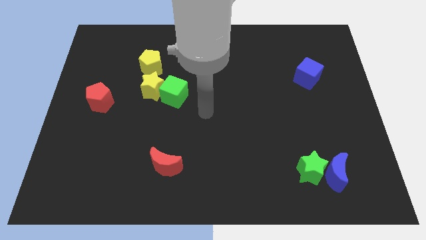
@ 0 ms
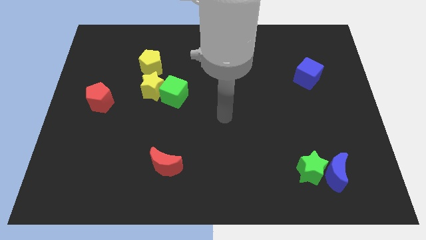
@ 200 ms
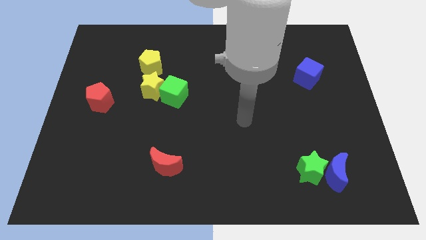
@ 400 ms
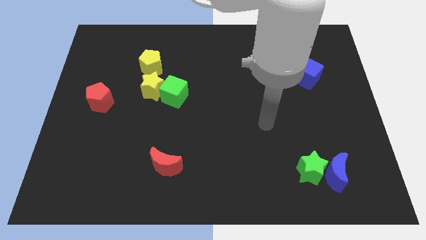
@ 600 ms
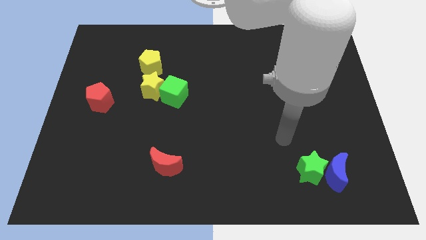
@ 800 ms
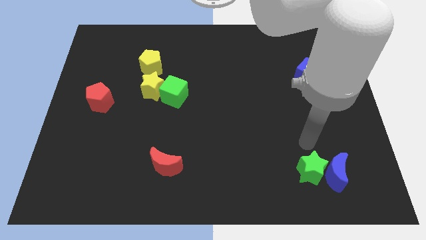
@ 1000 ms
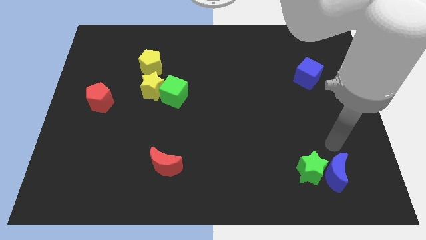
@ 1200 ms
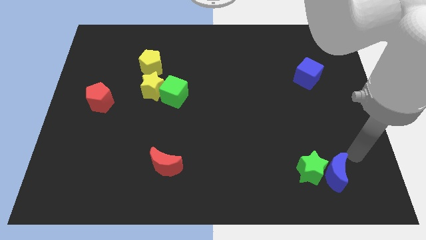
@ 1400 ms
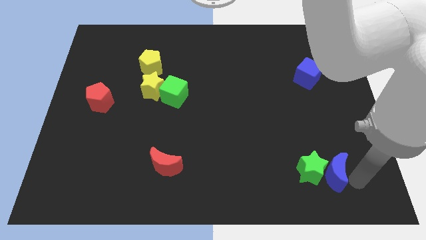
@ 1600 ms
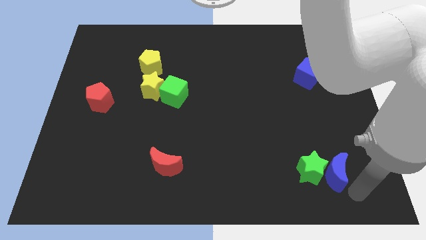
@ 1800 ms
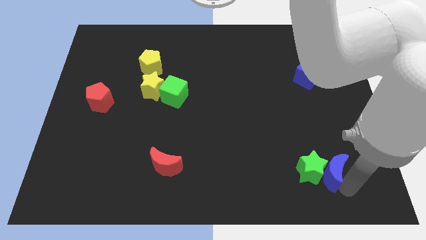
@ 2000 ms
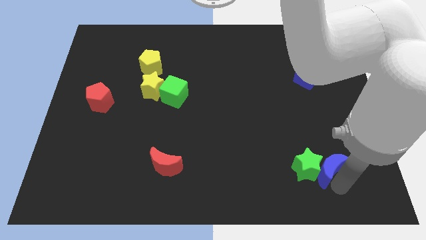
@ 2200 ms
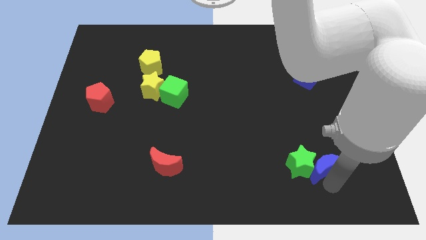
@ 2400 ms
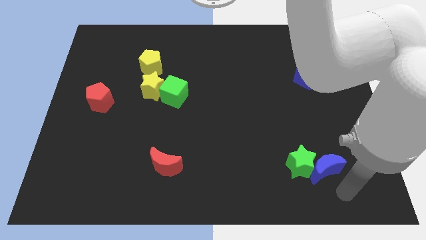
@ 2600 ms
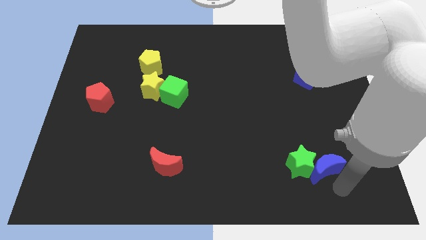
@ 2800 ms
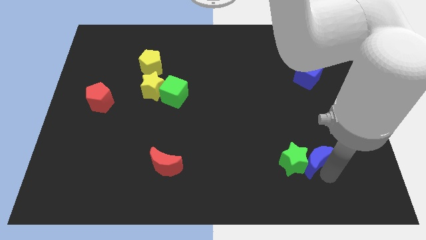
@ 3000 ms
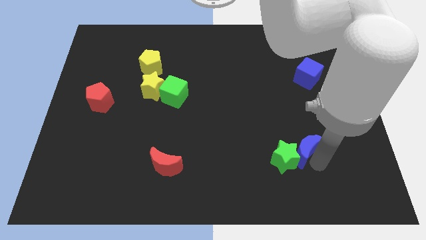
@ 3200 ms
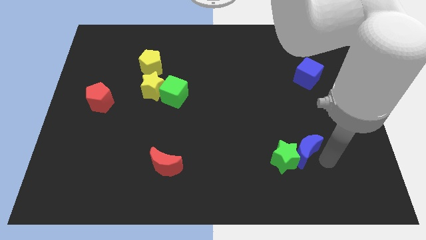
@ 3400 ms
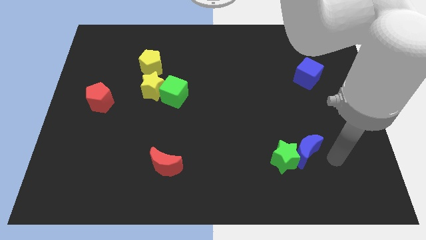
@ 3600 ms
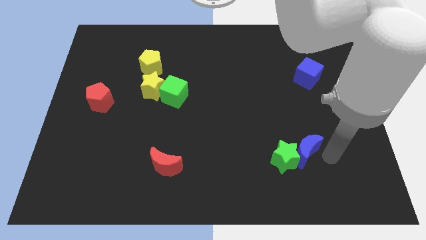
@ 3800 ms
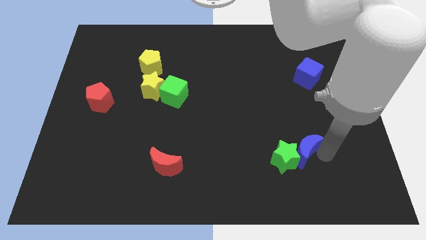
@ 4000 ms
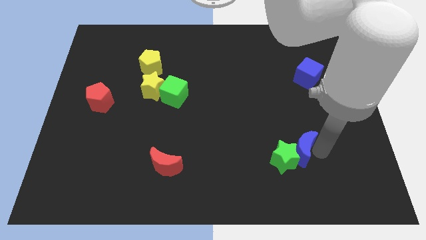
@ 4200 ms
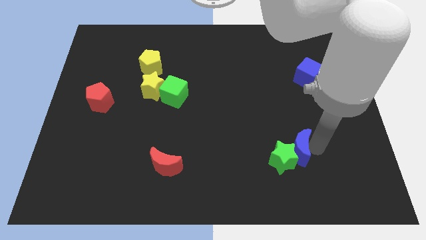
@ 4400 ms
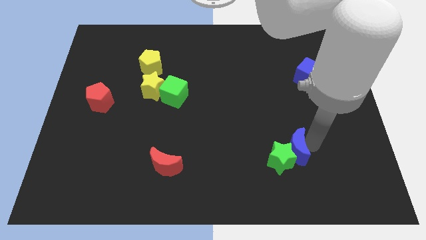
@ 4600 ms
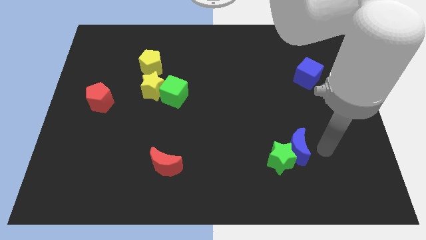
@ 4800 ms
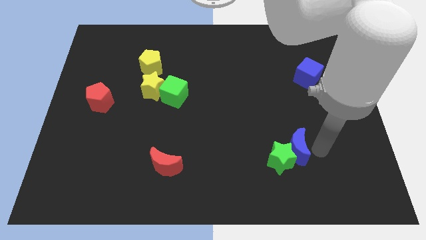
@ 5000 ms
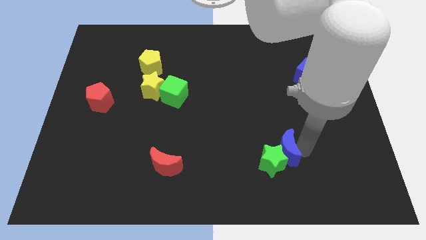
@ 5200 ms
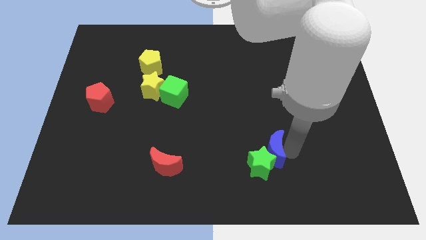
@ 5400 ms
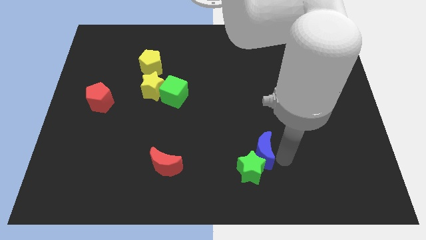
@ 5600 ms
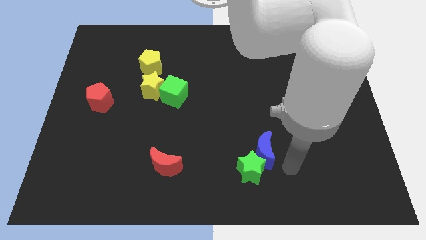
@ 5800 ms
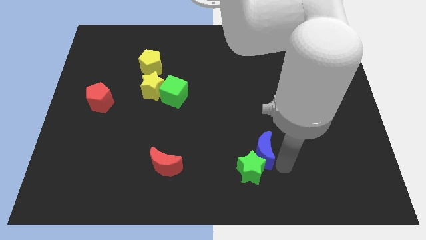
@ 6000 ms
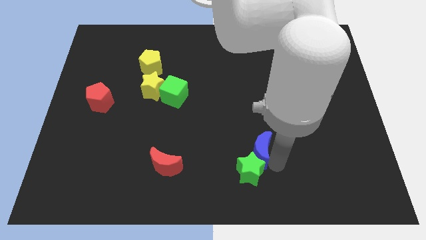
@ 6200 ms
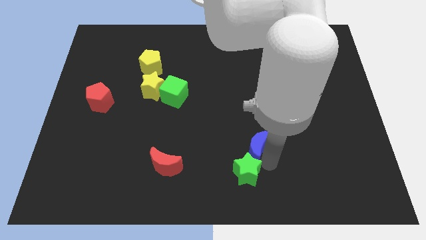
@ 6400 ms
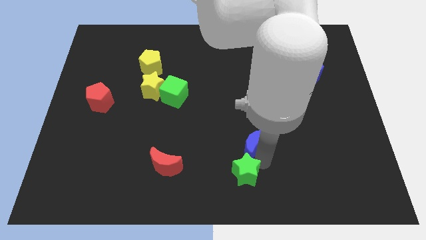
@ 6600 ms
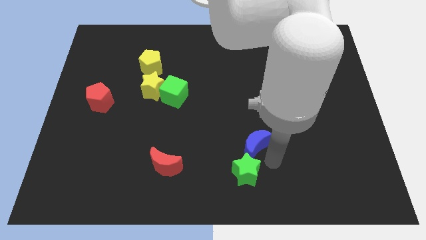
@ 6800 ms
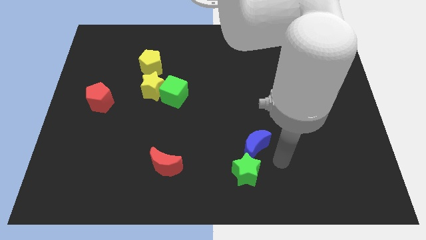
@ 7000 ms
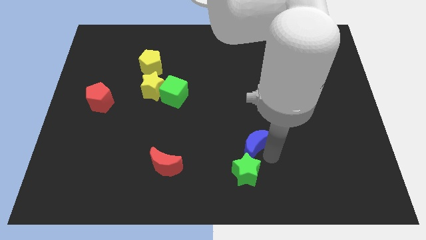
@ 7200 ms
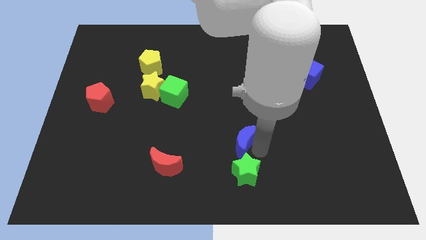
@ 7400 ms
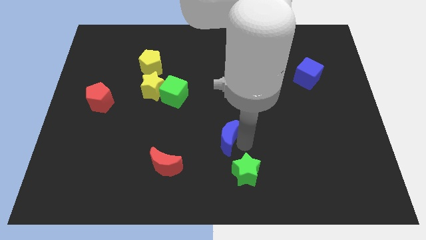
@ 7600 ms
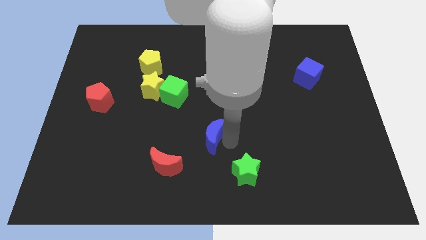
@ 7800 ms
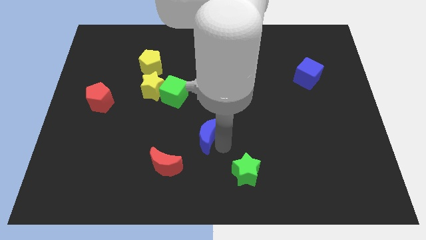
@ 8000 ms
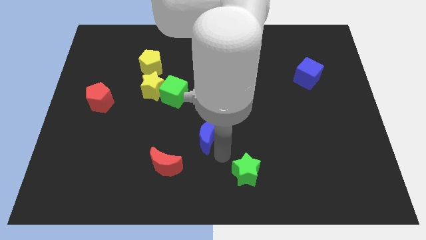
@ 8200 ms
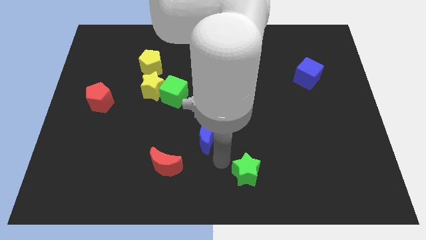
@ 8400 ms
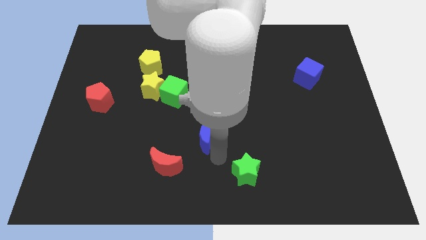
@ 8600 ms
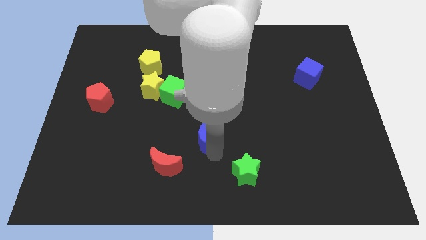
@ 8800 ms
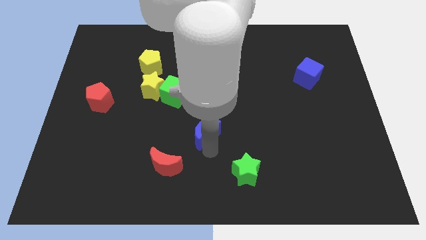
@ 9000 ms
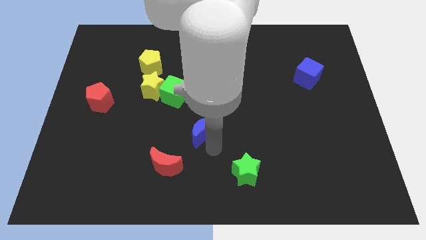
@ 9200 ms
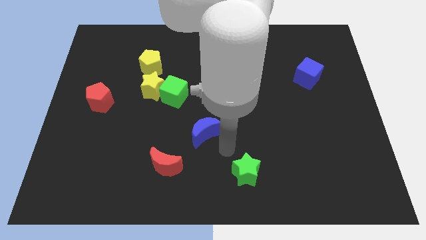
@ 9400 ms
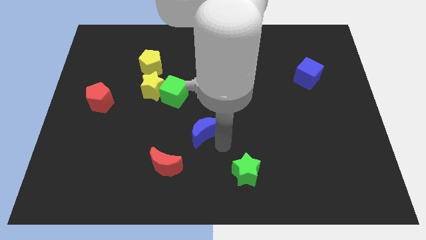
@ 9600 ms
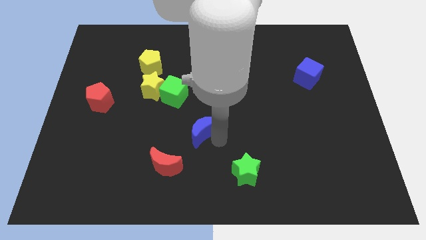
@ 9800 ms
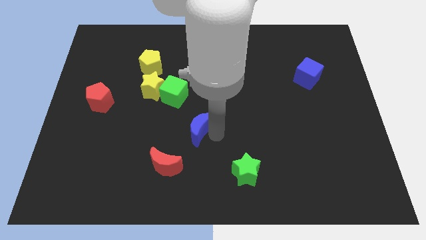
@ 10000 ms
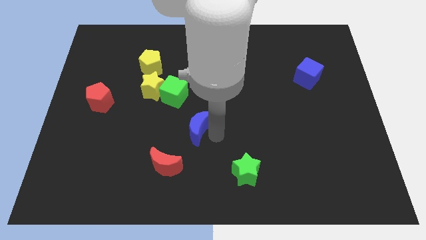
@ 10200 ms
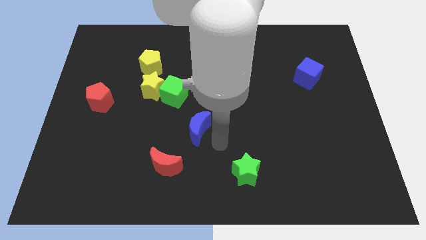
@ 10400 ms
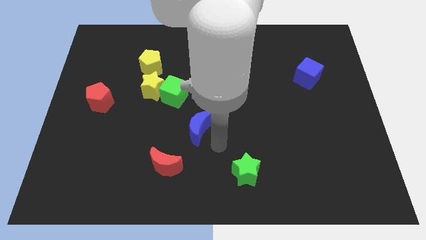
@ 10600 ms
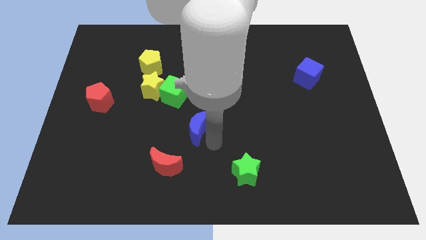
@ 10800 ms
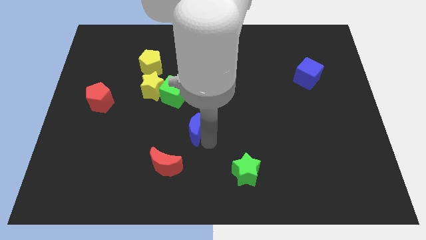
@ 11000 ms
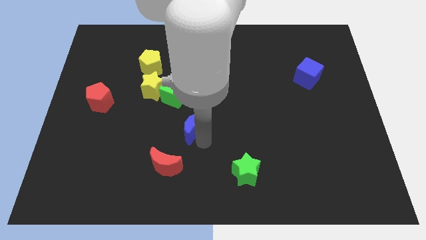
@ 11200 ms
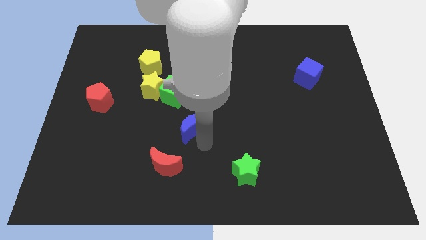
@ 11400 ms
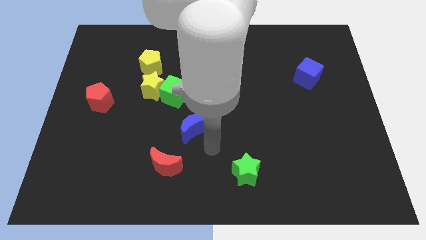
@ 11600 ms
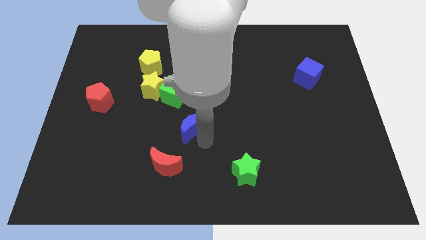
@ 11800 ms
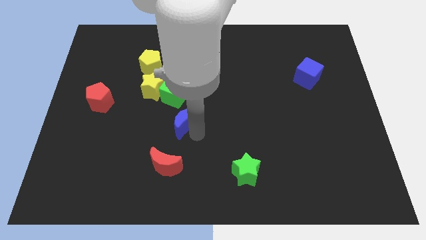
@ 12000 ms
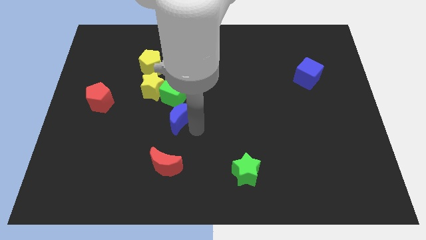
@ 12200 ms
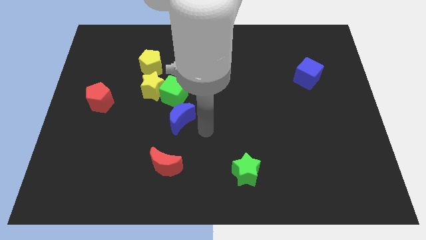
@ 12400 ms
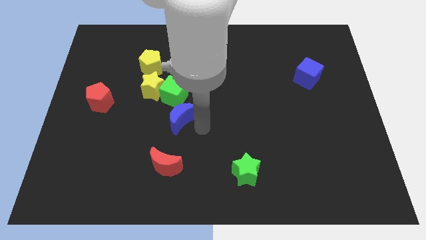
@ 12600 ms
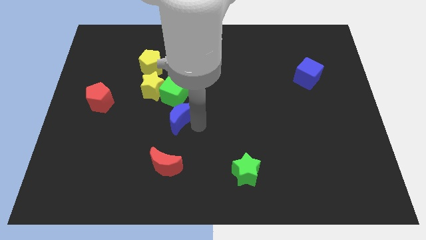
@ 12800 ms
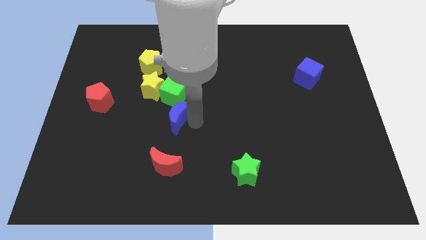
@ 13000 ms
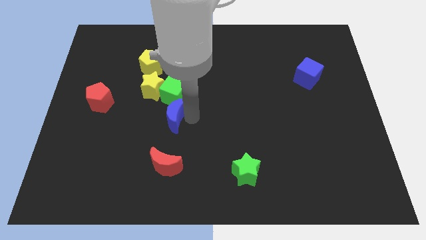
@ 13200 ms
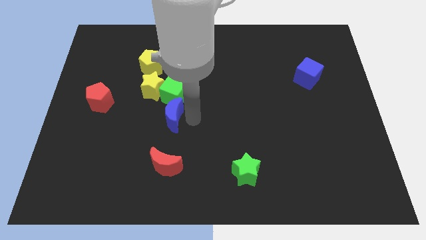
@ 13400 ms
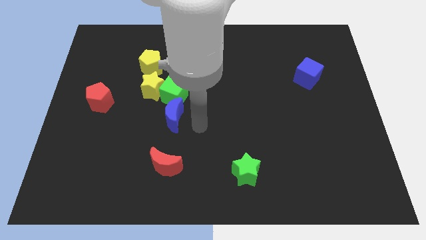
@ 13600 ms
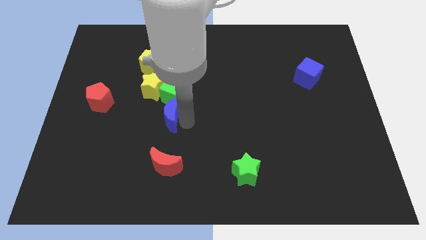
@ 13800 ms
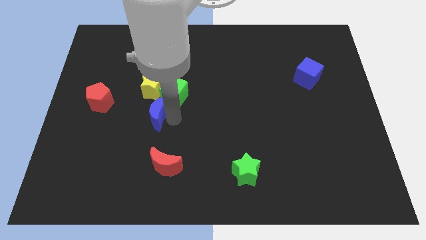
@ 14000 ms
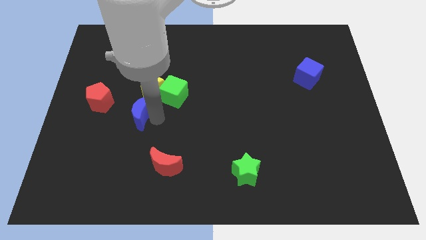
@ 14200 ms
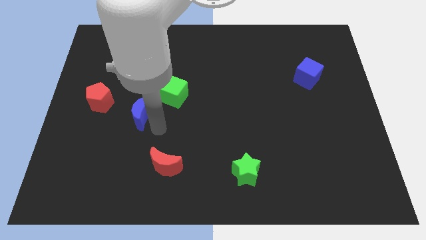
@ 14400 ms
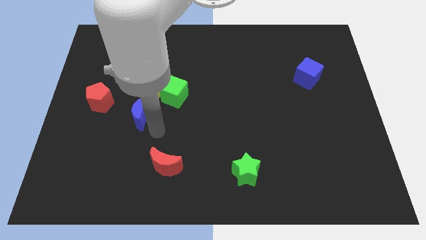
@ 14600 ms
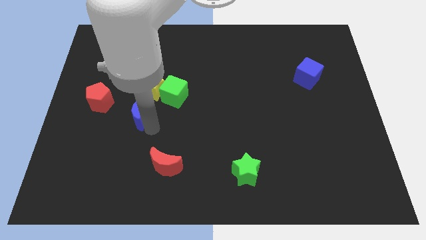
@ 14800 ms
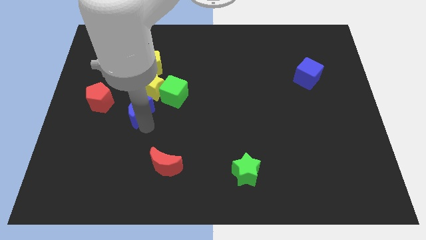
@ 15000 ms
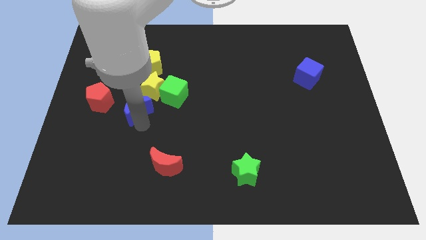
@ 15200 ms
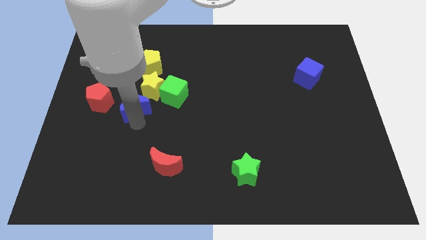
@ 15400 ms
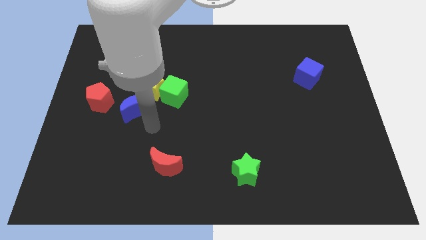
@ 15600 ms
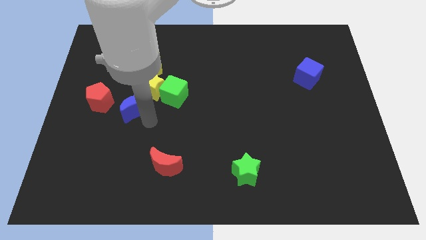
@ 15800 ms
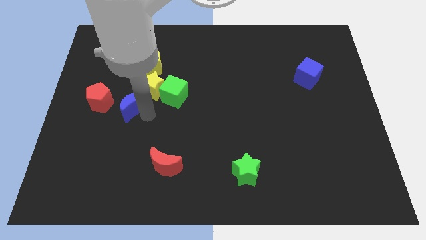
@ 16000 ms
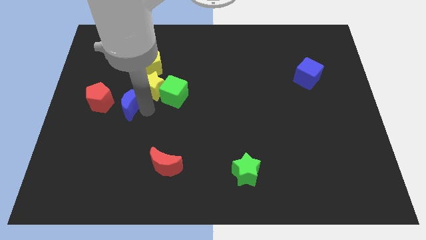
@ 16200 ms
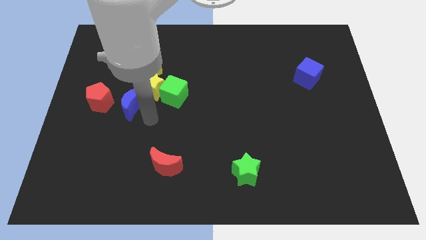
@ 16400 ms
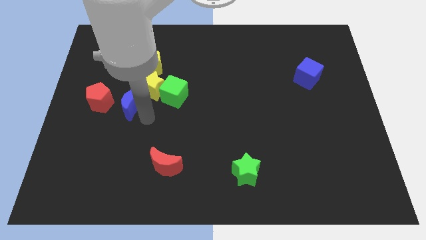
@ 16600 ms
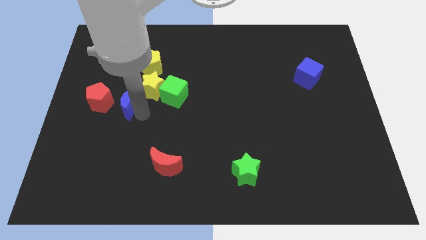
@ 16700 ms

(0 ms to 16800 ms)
move the blue moon to the left side of the yellow star
